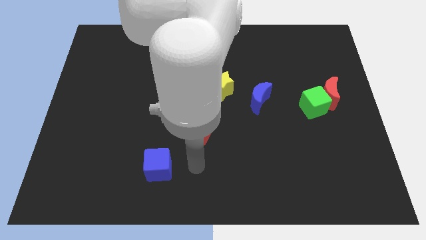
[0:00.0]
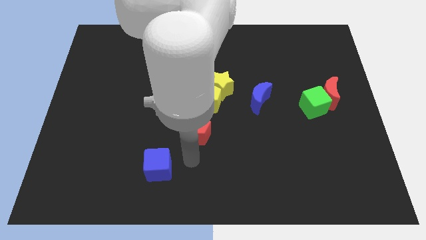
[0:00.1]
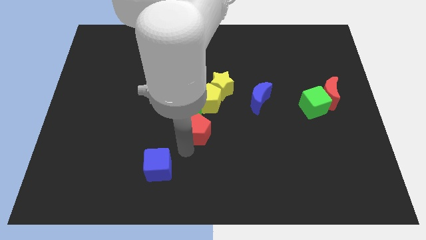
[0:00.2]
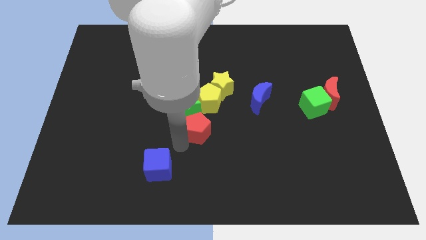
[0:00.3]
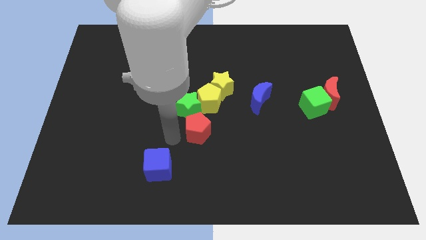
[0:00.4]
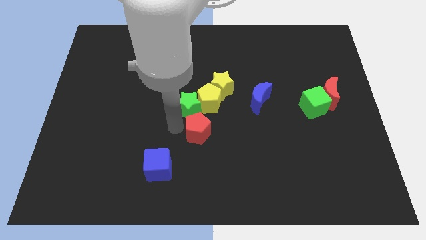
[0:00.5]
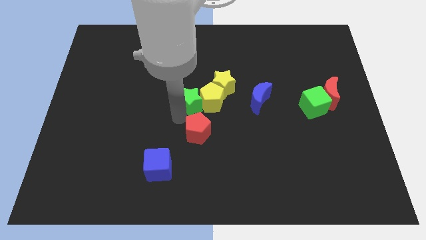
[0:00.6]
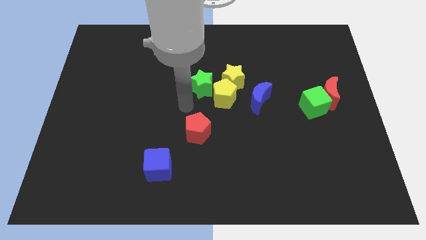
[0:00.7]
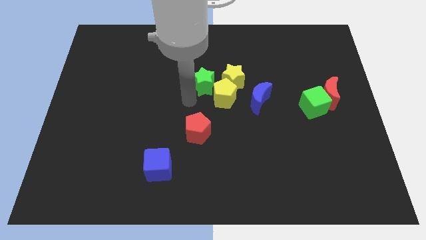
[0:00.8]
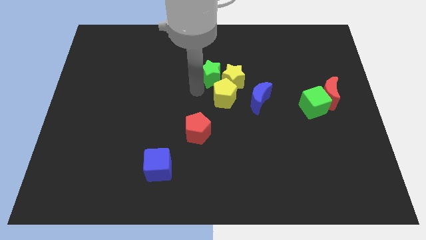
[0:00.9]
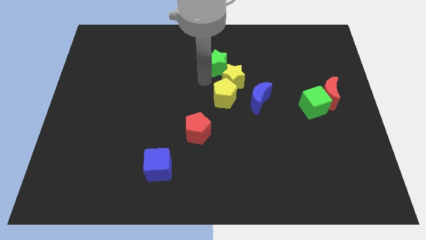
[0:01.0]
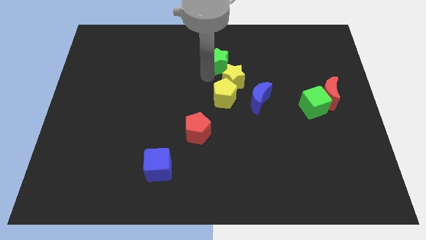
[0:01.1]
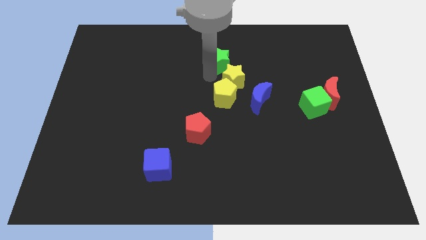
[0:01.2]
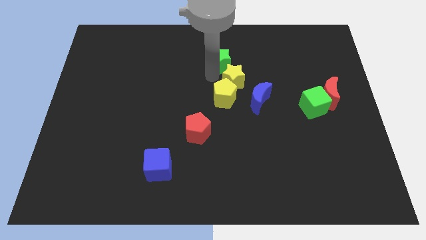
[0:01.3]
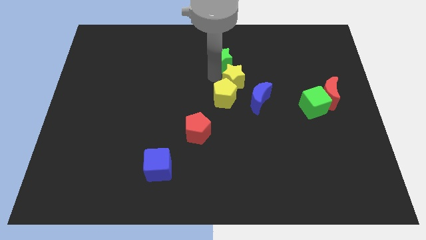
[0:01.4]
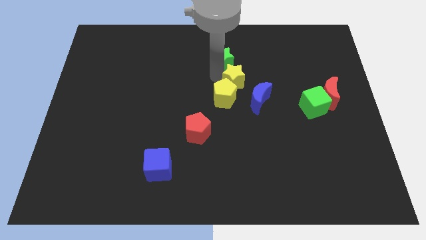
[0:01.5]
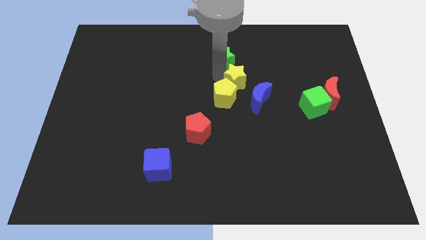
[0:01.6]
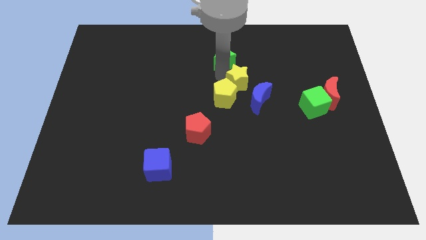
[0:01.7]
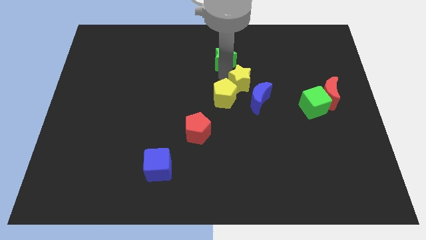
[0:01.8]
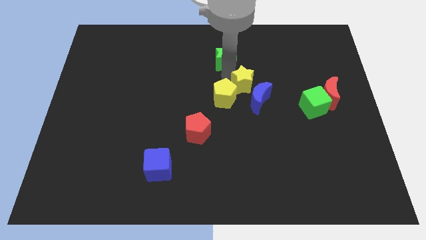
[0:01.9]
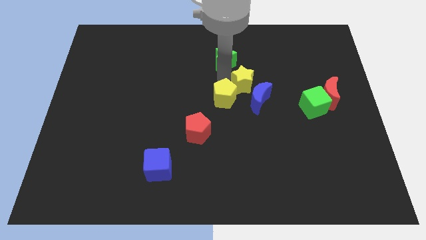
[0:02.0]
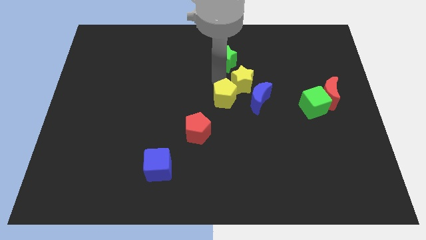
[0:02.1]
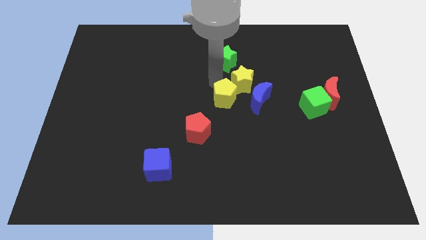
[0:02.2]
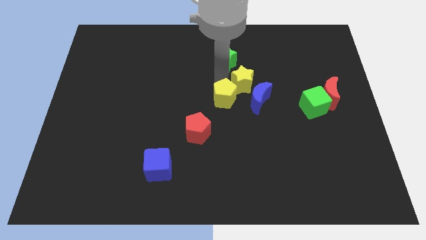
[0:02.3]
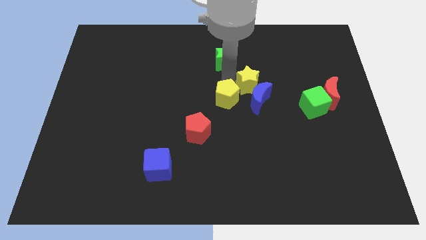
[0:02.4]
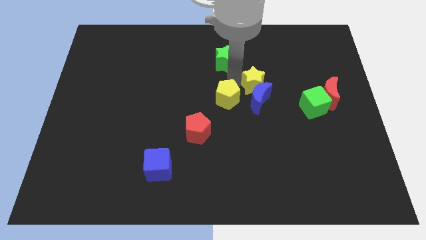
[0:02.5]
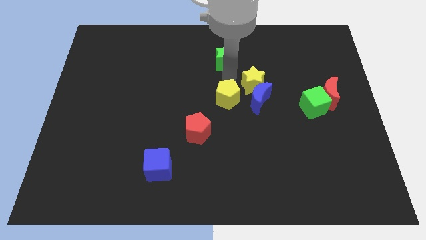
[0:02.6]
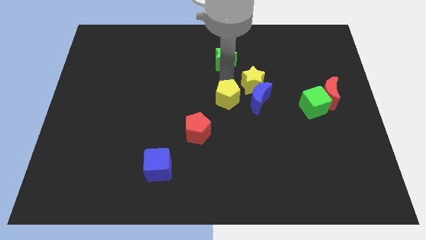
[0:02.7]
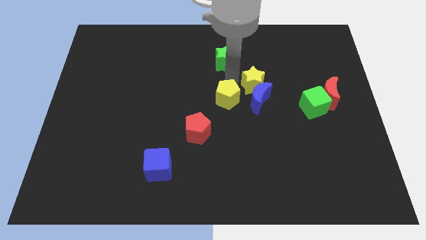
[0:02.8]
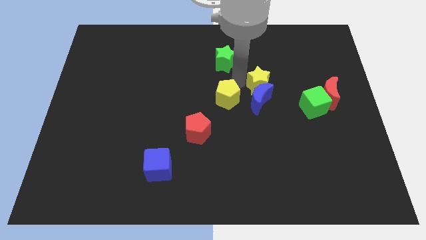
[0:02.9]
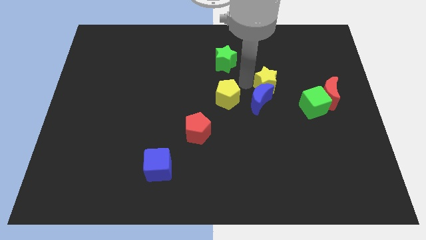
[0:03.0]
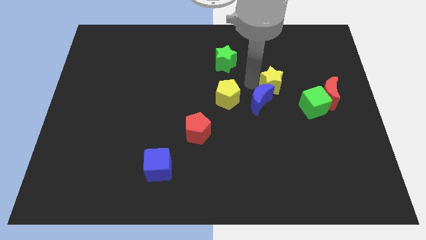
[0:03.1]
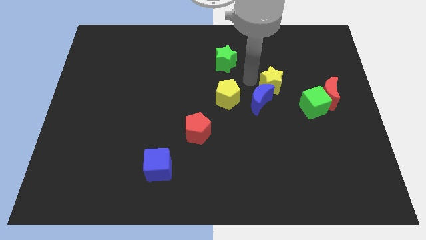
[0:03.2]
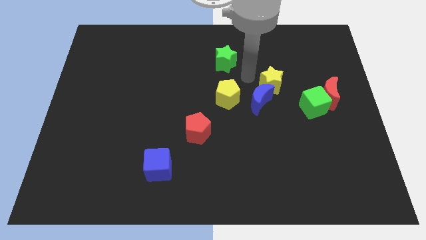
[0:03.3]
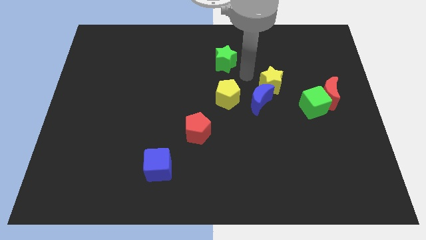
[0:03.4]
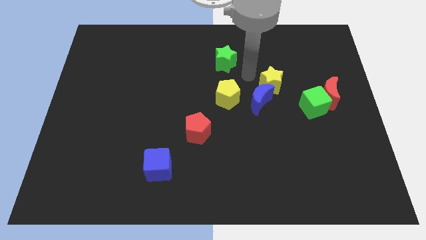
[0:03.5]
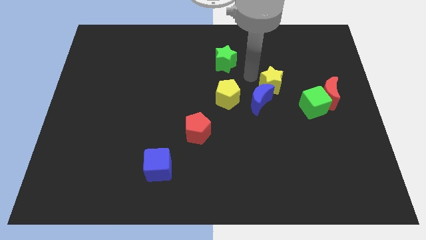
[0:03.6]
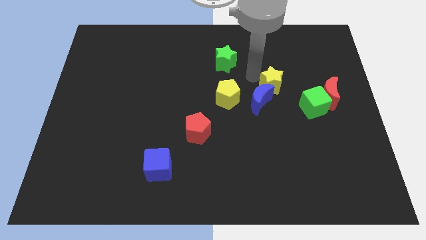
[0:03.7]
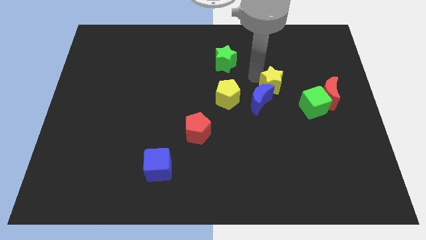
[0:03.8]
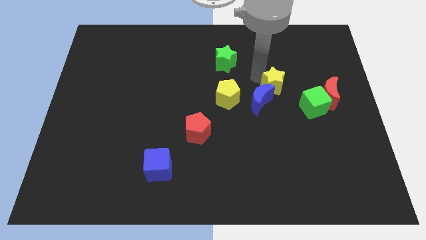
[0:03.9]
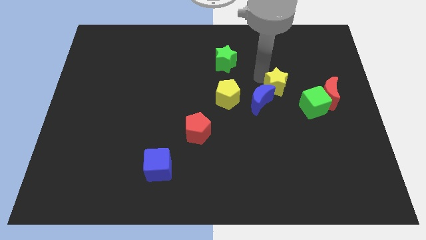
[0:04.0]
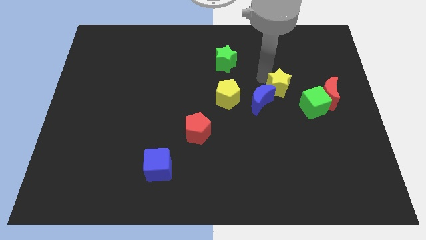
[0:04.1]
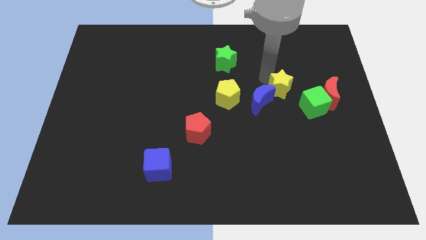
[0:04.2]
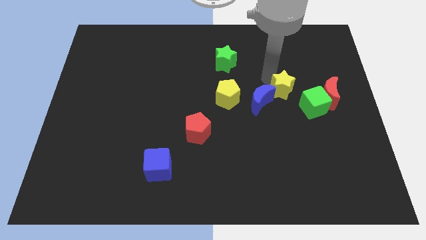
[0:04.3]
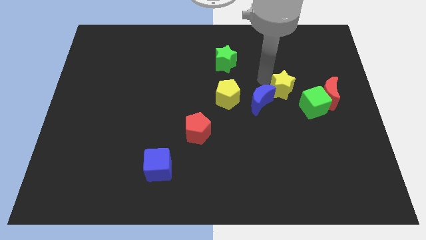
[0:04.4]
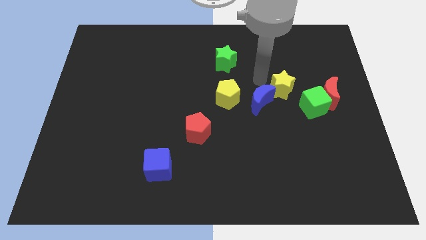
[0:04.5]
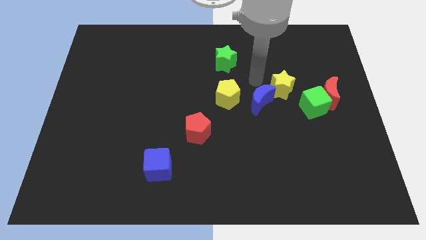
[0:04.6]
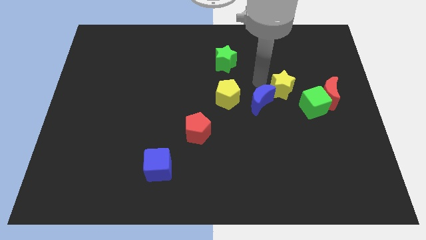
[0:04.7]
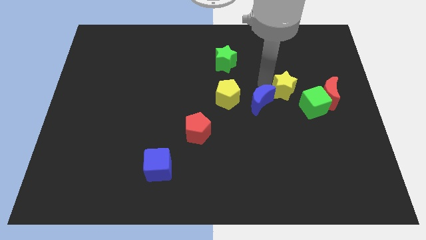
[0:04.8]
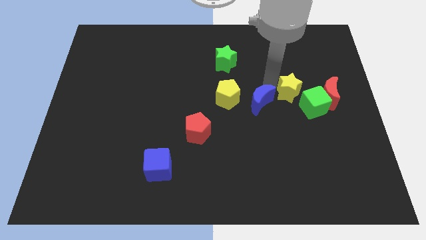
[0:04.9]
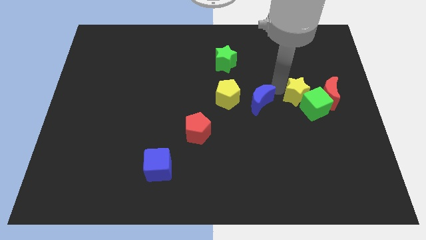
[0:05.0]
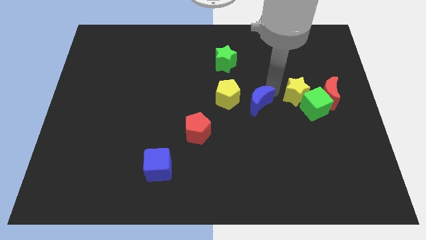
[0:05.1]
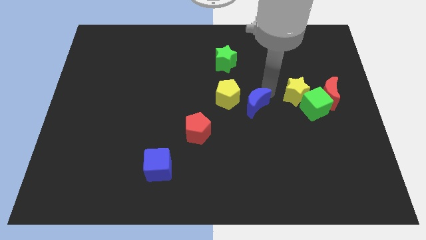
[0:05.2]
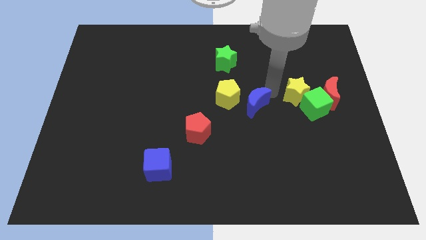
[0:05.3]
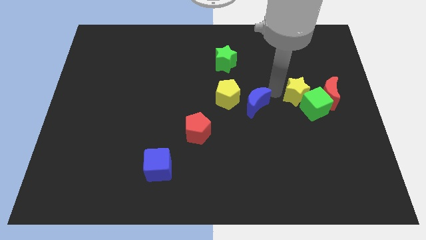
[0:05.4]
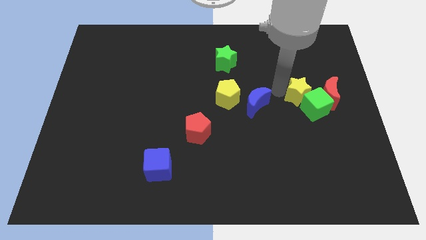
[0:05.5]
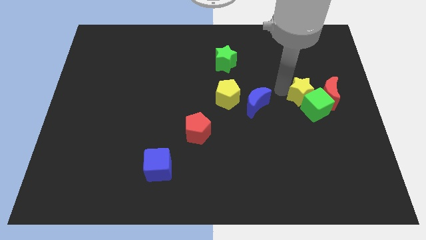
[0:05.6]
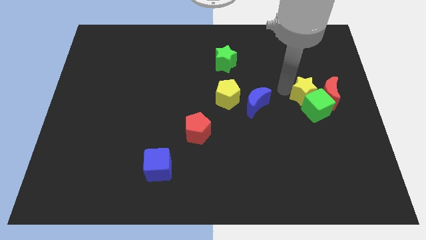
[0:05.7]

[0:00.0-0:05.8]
slide the yellow star towards the red moon

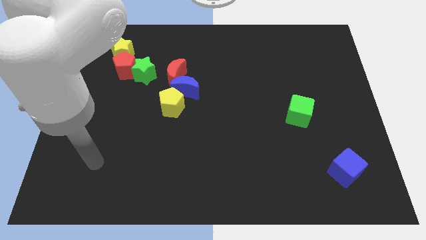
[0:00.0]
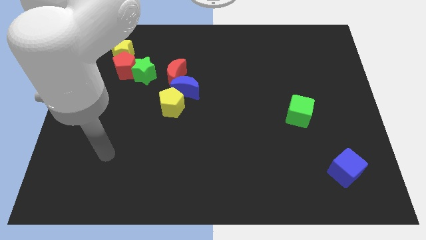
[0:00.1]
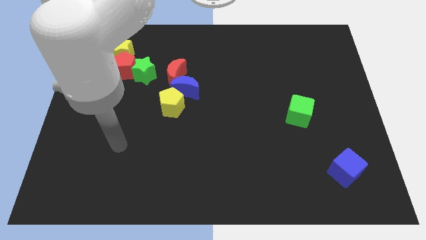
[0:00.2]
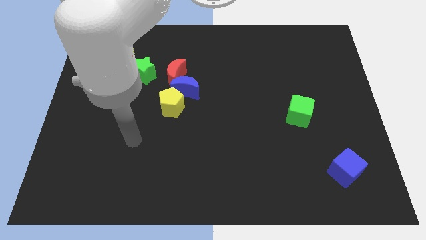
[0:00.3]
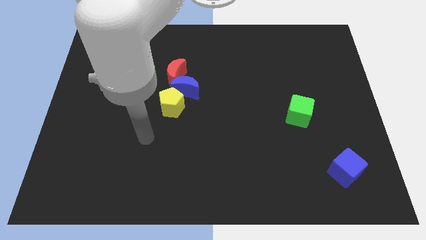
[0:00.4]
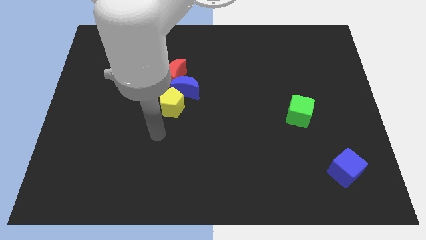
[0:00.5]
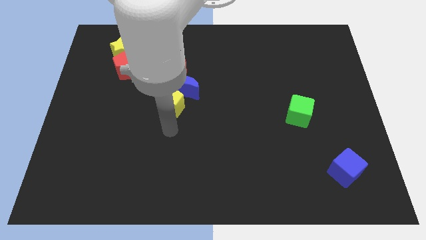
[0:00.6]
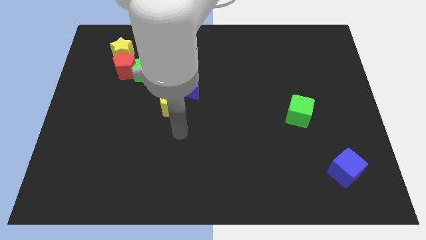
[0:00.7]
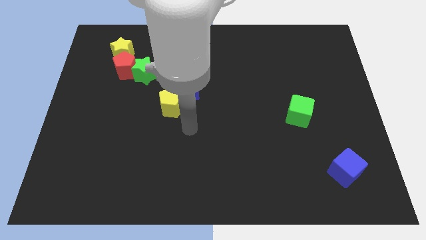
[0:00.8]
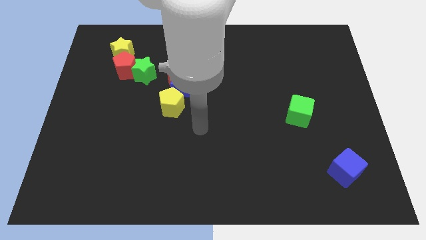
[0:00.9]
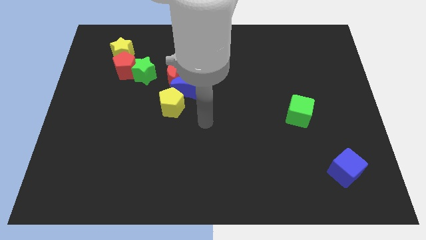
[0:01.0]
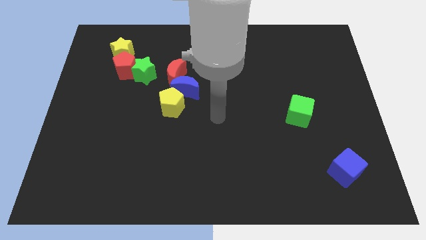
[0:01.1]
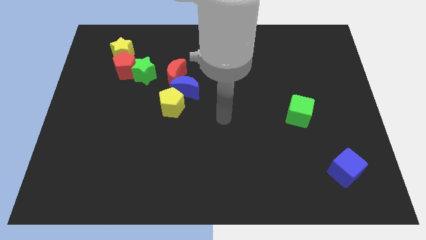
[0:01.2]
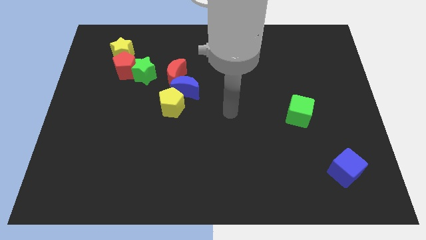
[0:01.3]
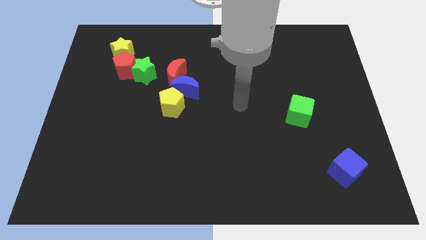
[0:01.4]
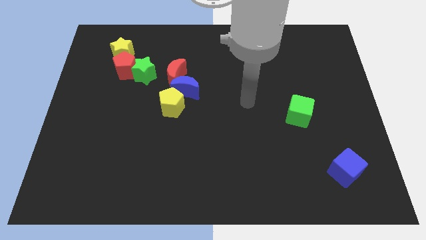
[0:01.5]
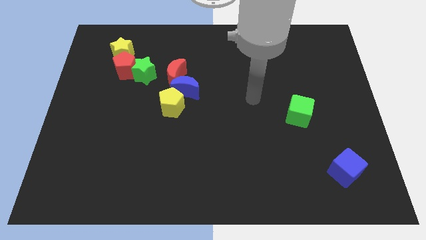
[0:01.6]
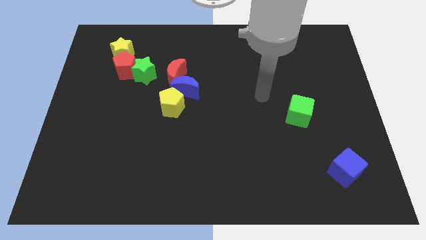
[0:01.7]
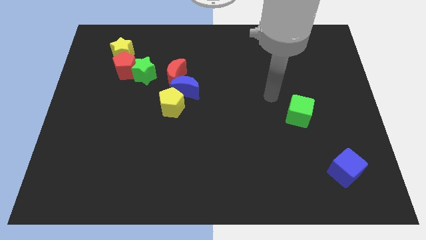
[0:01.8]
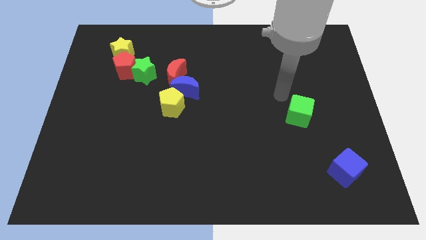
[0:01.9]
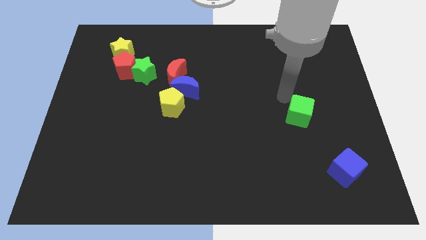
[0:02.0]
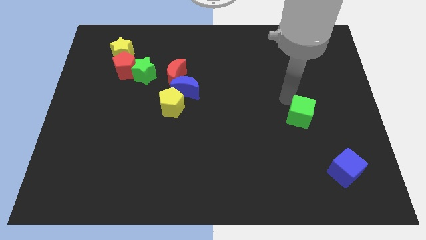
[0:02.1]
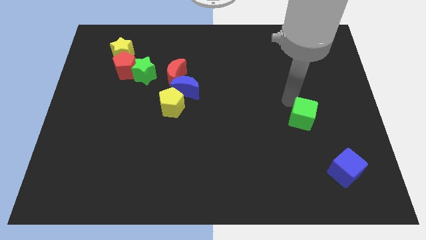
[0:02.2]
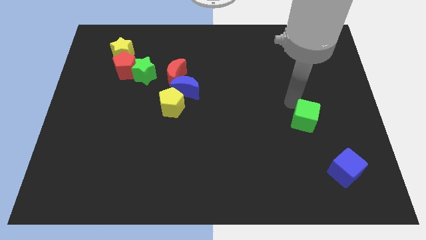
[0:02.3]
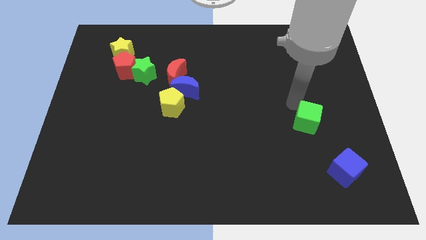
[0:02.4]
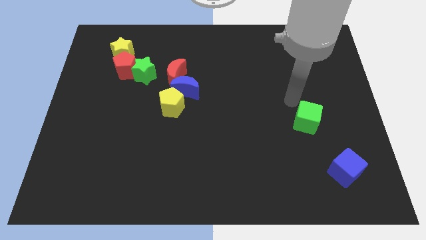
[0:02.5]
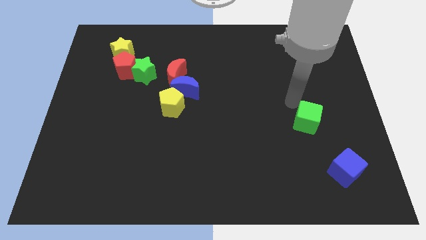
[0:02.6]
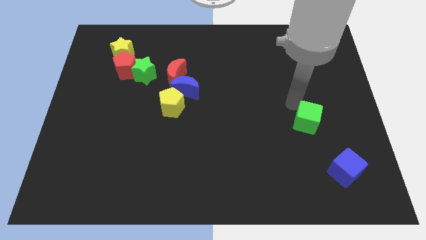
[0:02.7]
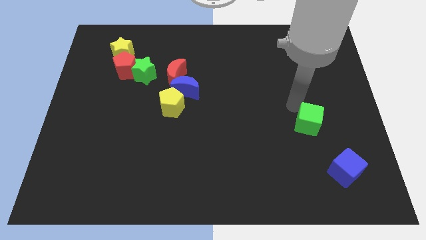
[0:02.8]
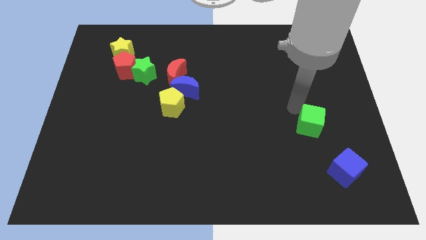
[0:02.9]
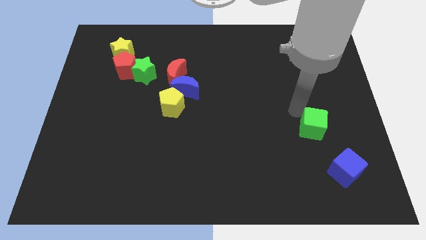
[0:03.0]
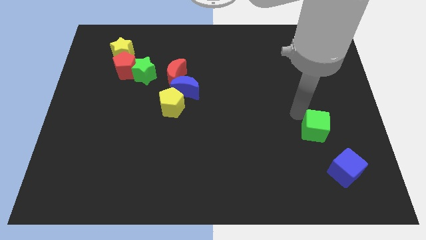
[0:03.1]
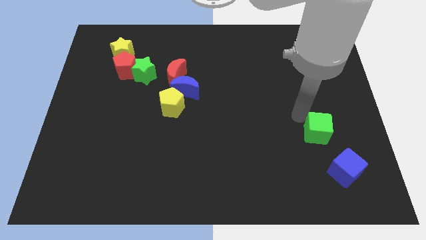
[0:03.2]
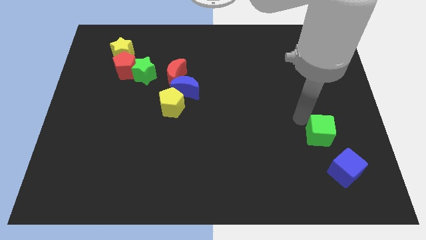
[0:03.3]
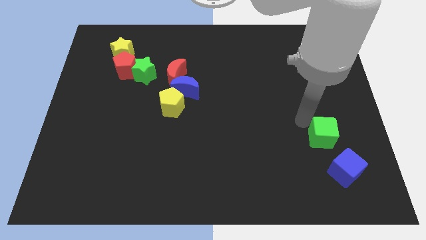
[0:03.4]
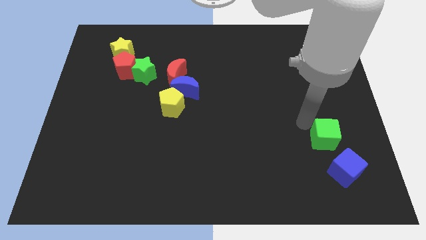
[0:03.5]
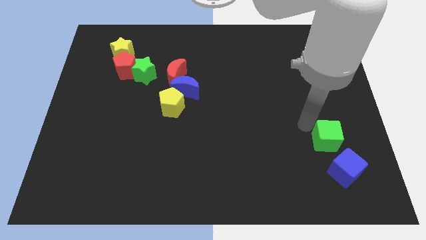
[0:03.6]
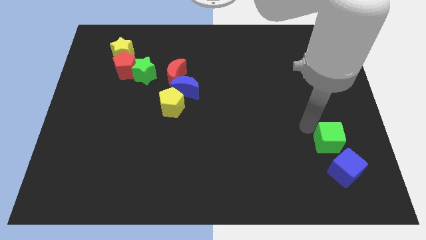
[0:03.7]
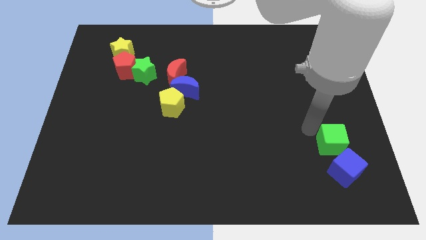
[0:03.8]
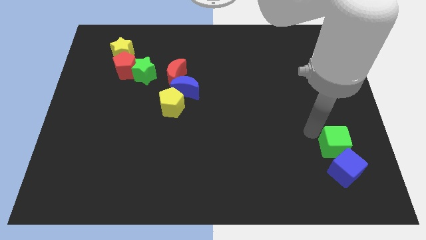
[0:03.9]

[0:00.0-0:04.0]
move the green cube next to the blue cube
